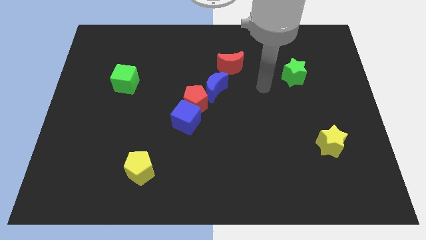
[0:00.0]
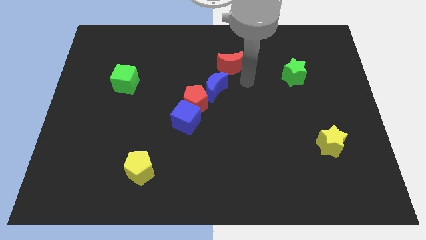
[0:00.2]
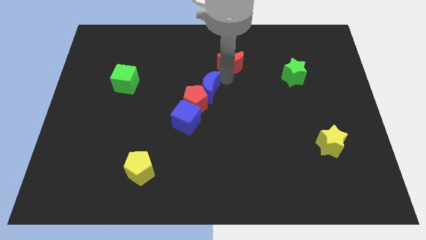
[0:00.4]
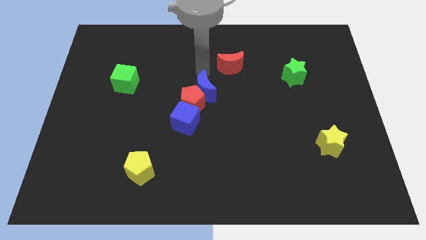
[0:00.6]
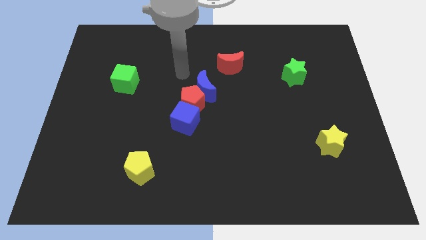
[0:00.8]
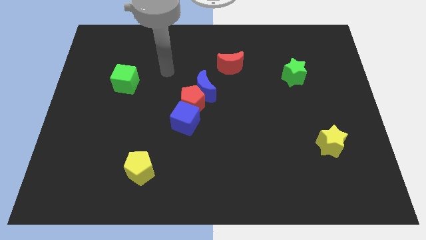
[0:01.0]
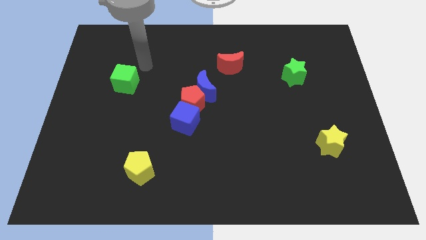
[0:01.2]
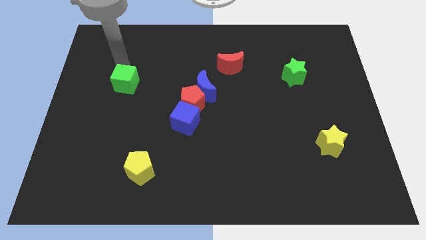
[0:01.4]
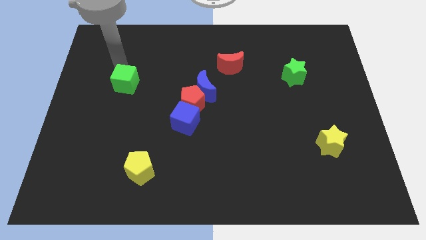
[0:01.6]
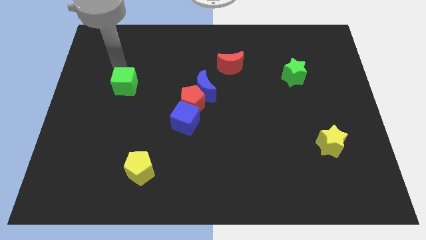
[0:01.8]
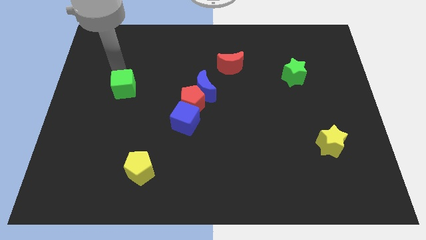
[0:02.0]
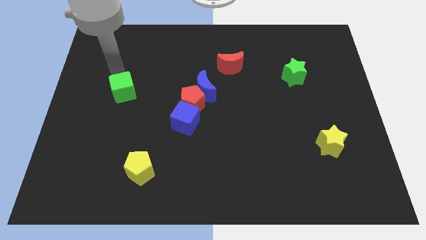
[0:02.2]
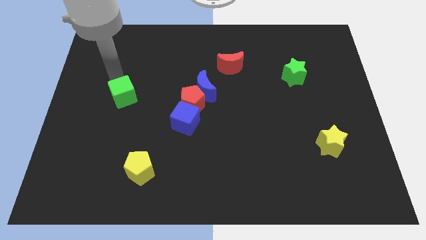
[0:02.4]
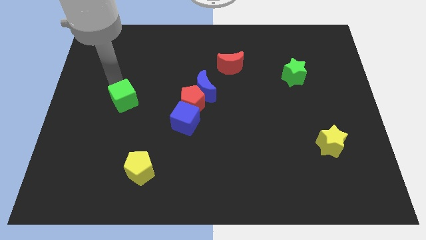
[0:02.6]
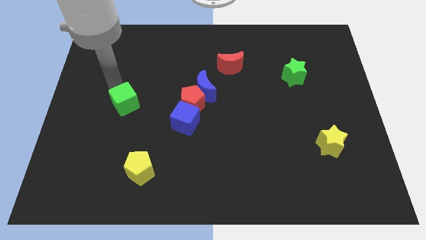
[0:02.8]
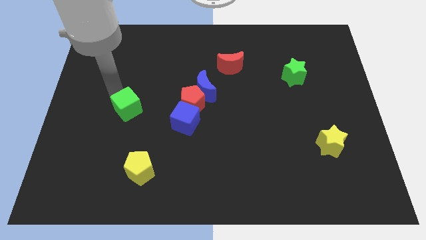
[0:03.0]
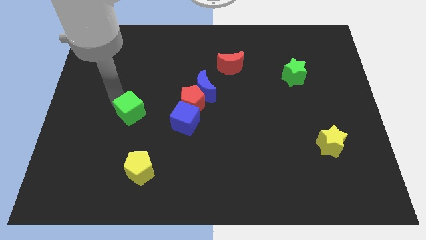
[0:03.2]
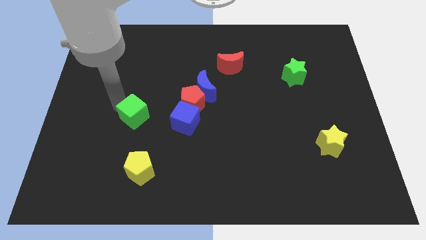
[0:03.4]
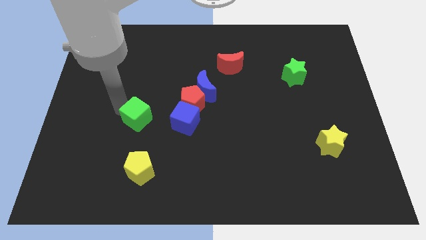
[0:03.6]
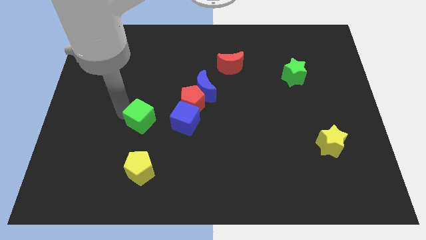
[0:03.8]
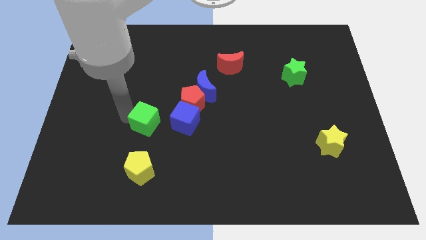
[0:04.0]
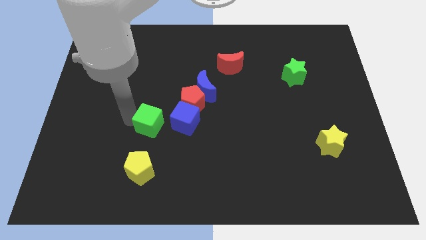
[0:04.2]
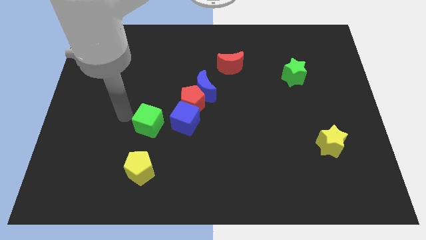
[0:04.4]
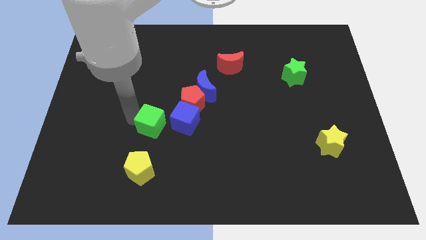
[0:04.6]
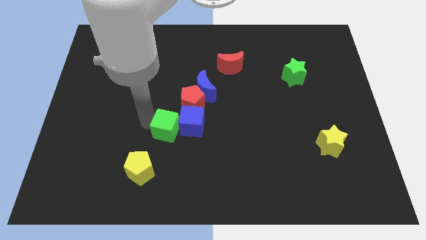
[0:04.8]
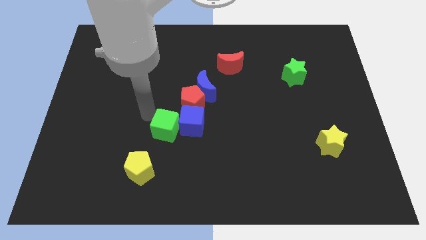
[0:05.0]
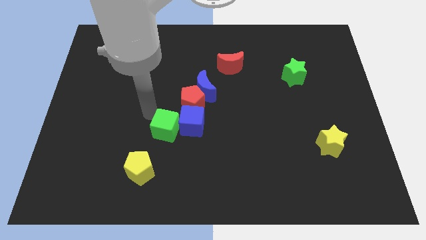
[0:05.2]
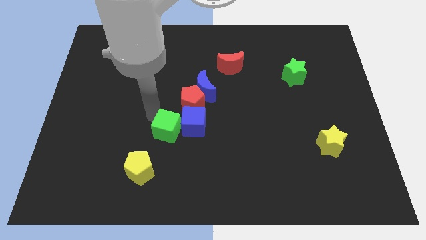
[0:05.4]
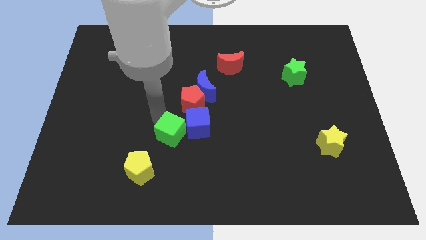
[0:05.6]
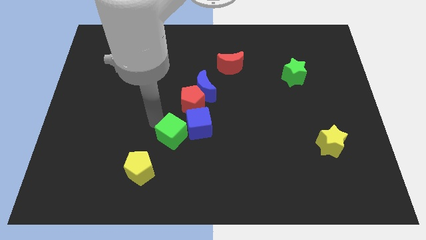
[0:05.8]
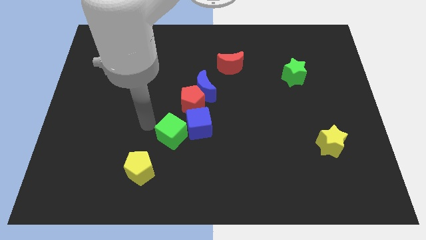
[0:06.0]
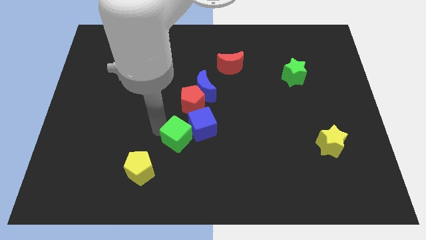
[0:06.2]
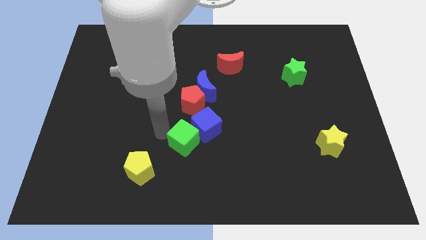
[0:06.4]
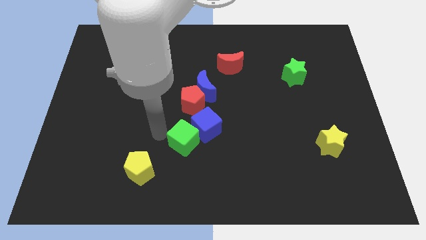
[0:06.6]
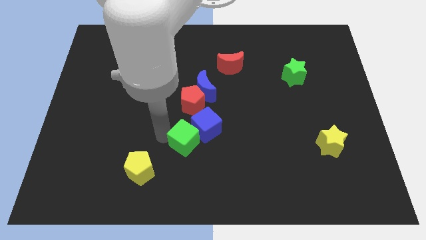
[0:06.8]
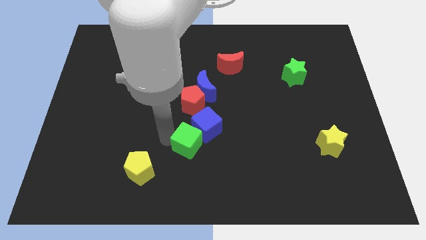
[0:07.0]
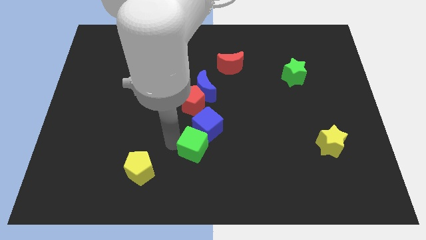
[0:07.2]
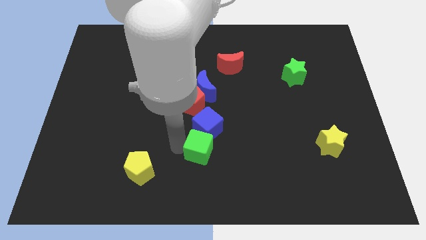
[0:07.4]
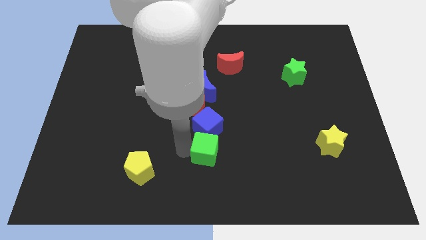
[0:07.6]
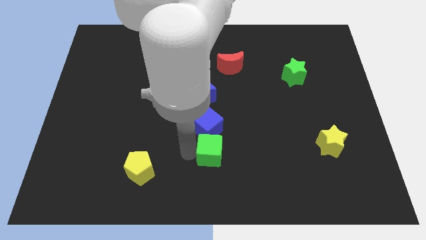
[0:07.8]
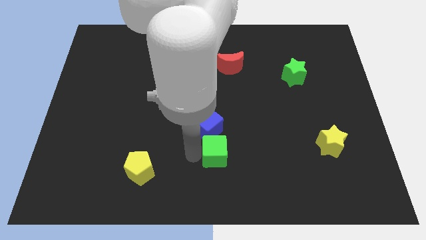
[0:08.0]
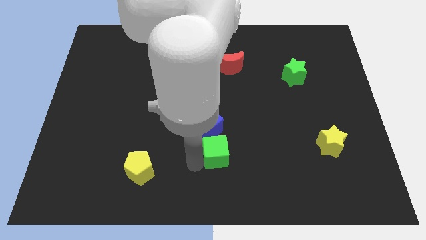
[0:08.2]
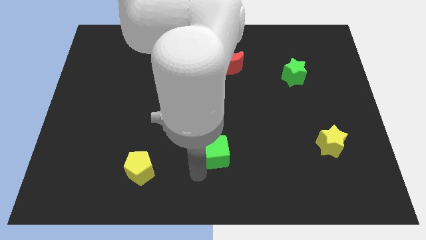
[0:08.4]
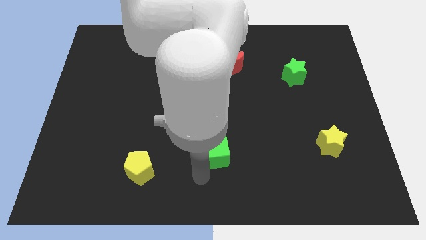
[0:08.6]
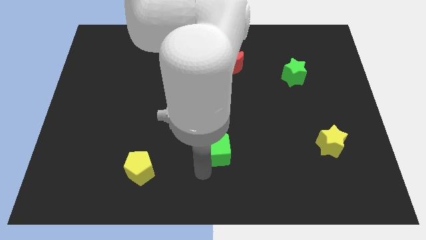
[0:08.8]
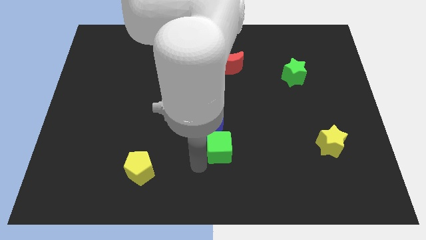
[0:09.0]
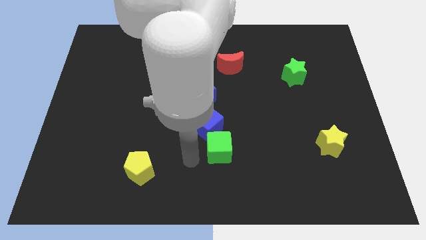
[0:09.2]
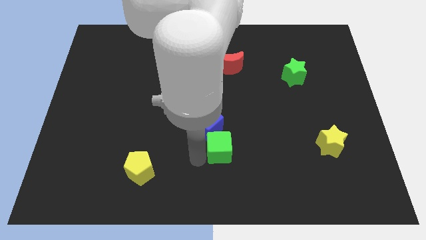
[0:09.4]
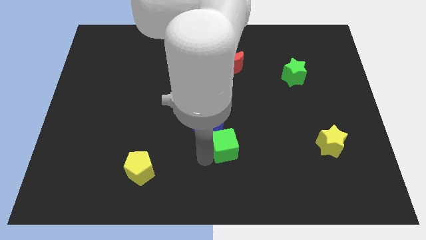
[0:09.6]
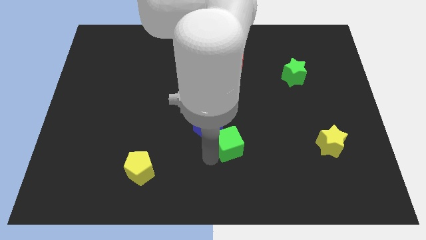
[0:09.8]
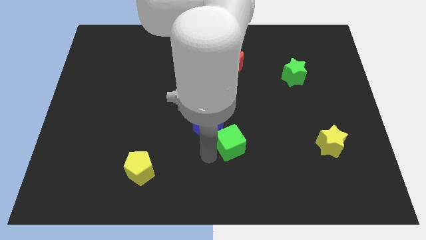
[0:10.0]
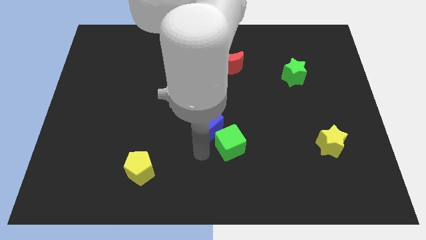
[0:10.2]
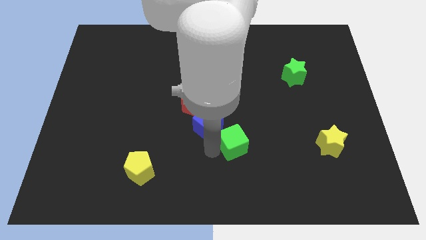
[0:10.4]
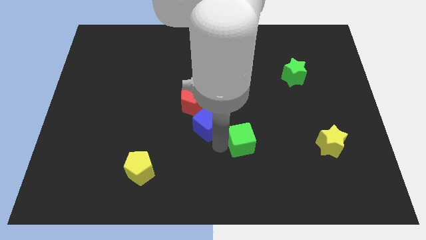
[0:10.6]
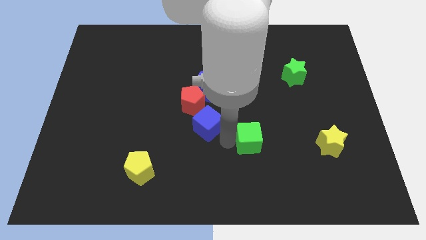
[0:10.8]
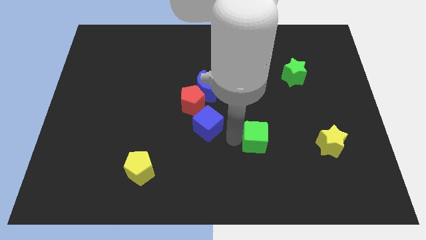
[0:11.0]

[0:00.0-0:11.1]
push the green cube to the left of the yellow star

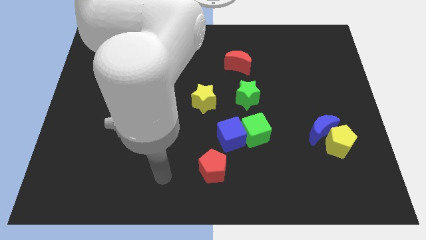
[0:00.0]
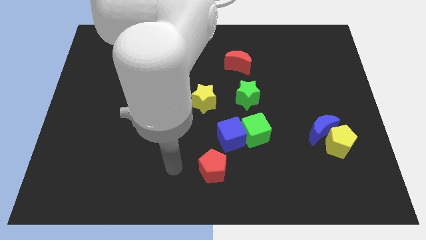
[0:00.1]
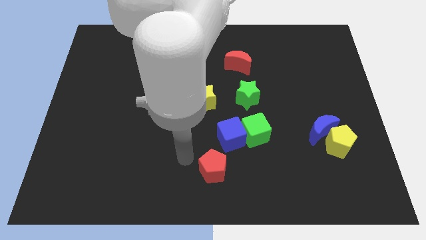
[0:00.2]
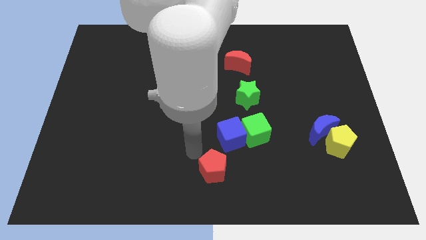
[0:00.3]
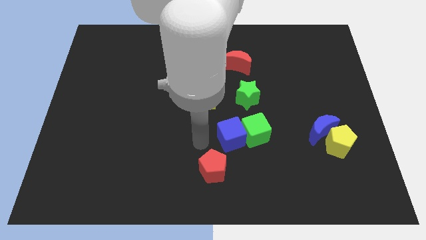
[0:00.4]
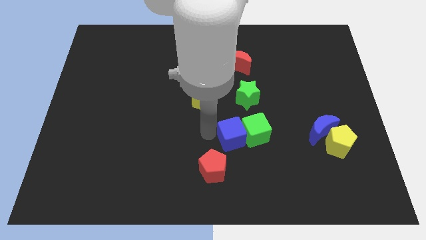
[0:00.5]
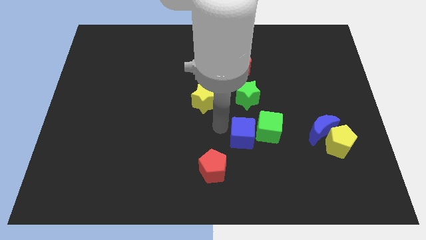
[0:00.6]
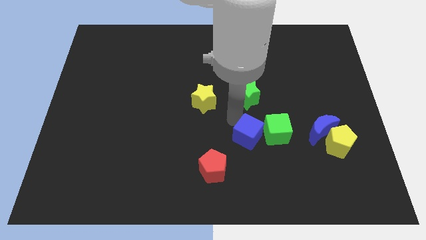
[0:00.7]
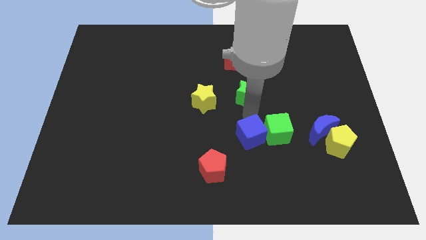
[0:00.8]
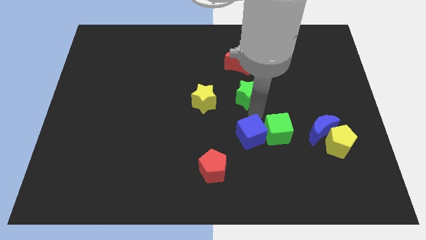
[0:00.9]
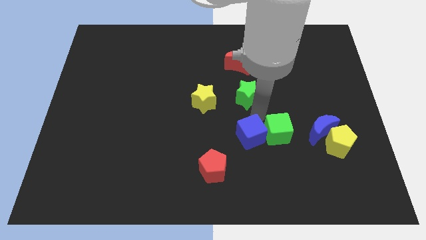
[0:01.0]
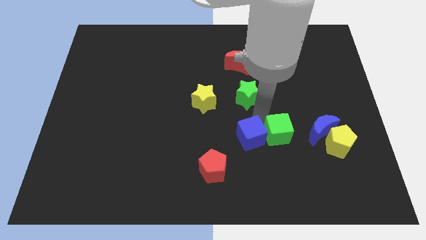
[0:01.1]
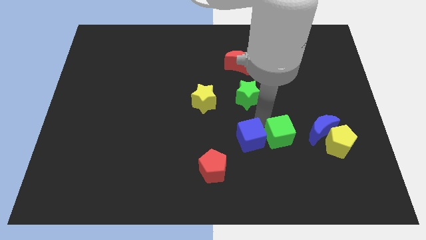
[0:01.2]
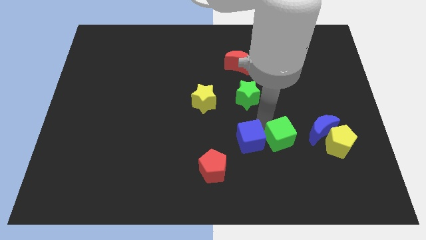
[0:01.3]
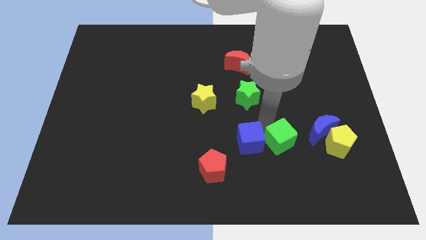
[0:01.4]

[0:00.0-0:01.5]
push the green cube diagonally down and to the left of the blue moon
